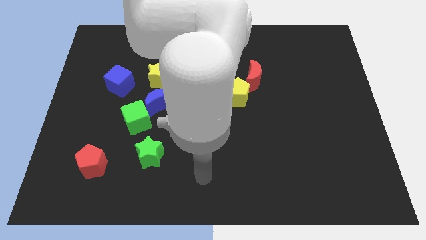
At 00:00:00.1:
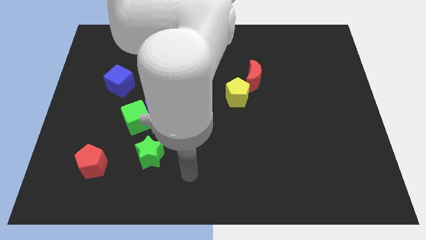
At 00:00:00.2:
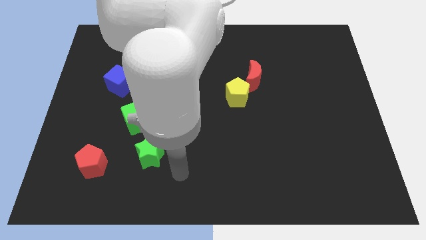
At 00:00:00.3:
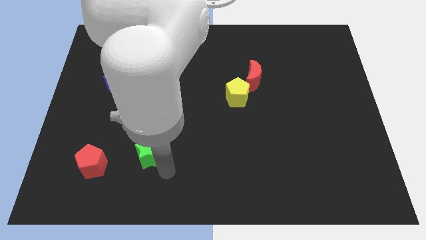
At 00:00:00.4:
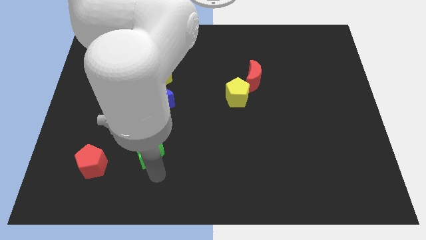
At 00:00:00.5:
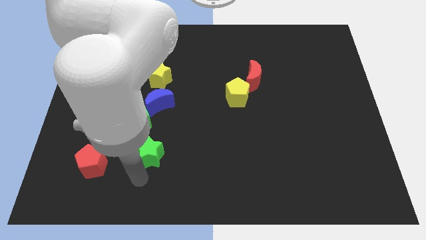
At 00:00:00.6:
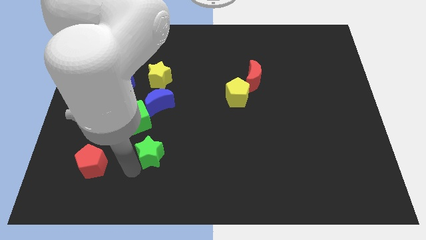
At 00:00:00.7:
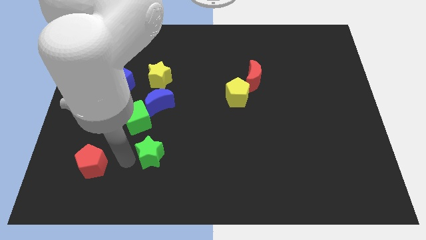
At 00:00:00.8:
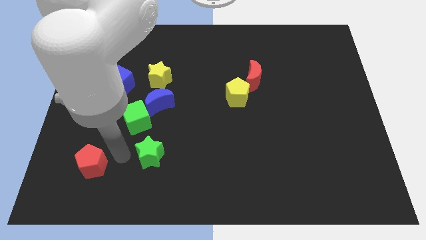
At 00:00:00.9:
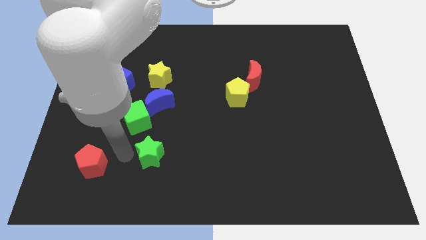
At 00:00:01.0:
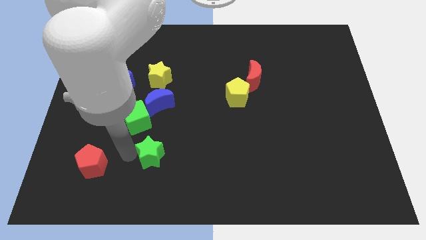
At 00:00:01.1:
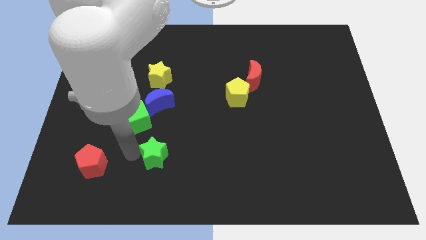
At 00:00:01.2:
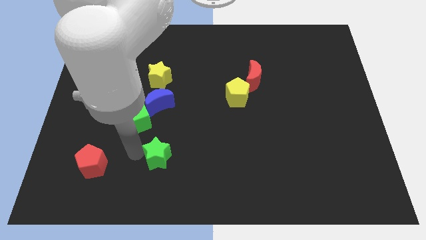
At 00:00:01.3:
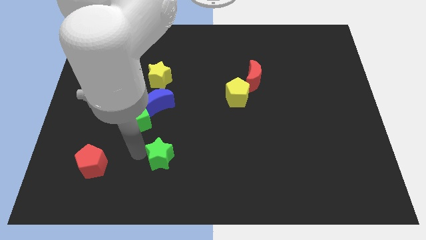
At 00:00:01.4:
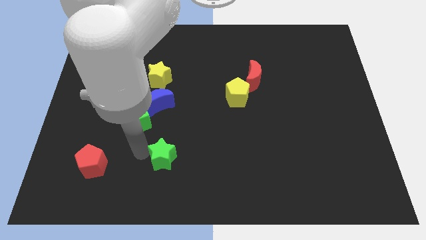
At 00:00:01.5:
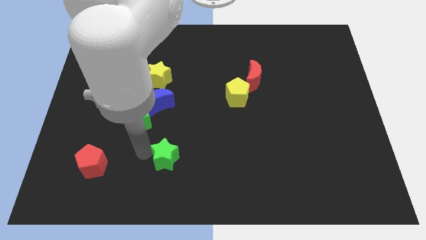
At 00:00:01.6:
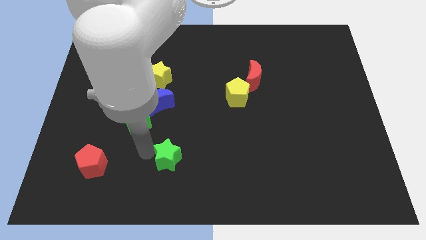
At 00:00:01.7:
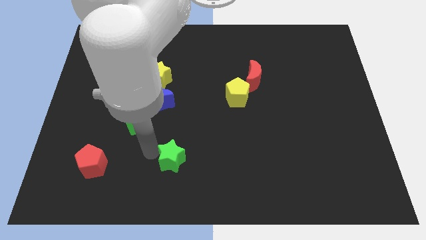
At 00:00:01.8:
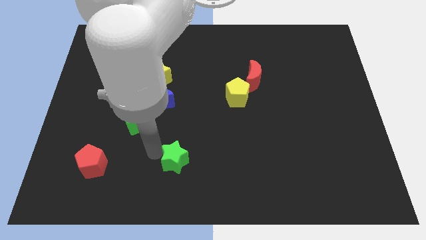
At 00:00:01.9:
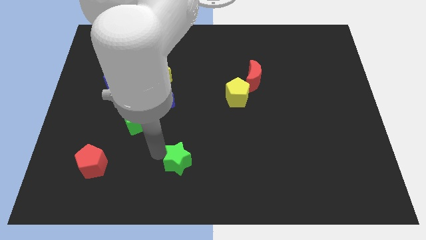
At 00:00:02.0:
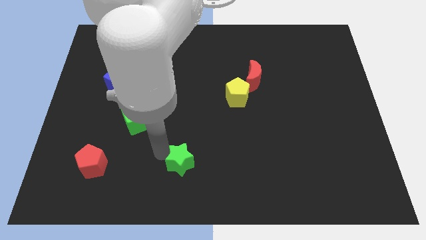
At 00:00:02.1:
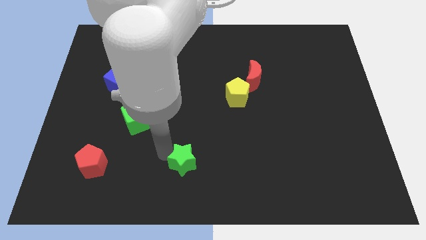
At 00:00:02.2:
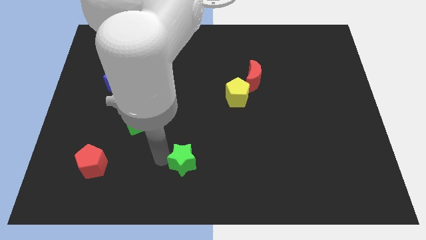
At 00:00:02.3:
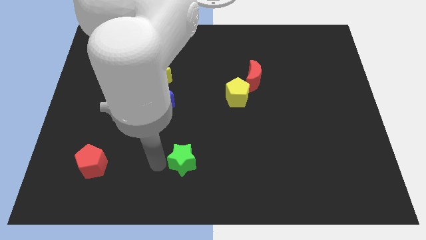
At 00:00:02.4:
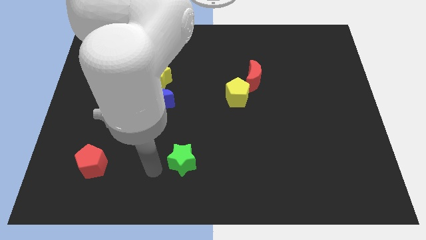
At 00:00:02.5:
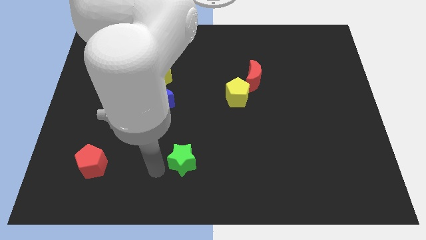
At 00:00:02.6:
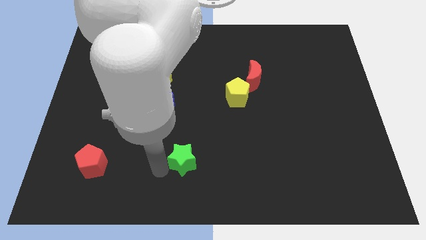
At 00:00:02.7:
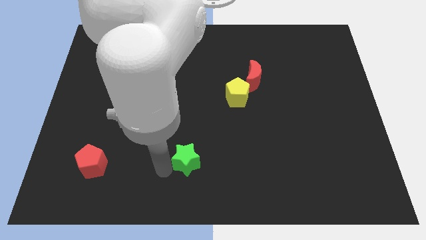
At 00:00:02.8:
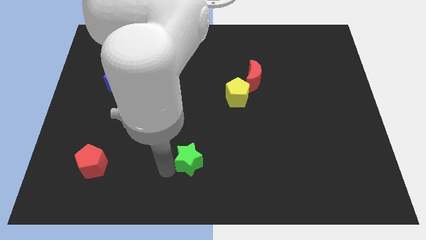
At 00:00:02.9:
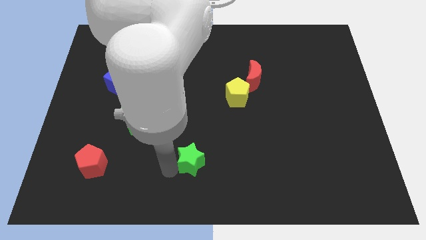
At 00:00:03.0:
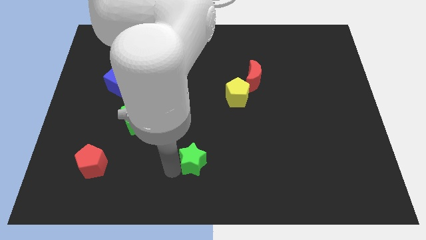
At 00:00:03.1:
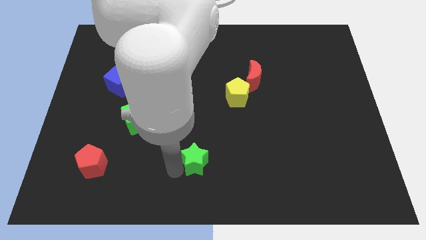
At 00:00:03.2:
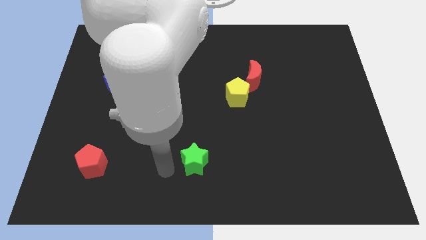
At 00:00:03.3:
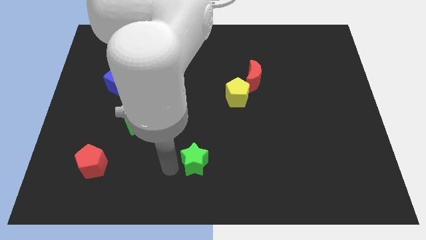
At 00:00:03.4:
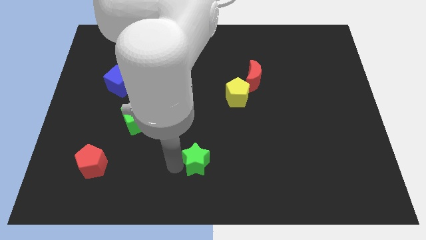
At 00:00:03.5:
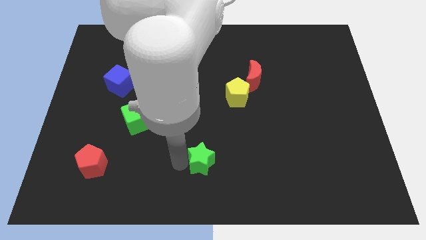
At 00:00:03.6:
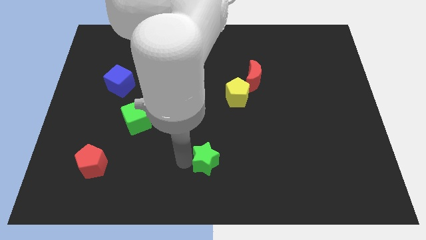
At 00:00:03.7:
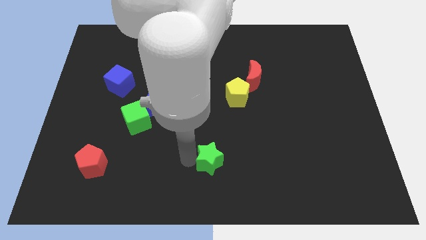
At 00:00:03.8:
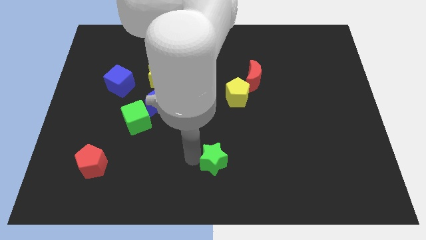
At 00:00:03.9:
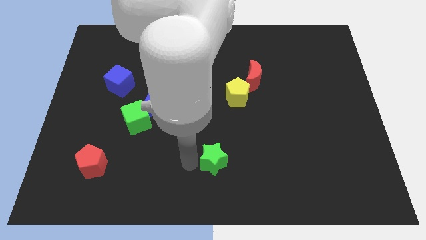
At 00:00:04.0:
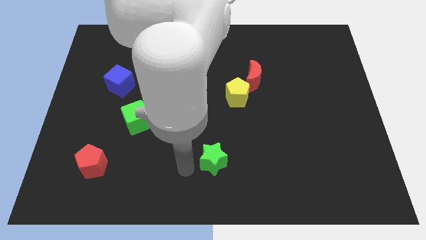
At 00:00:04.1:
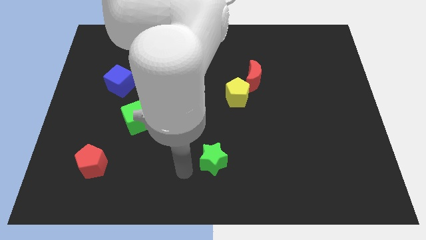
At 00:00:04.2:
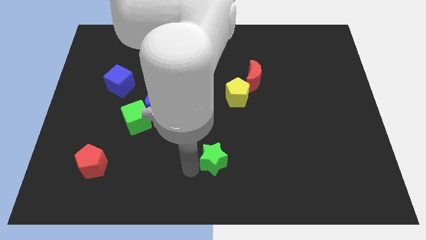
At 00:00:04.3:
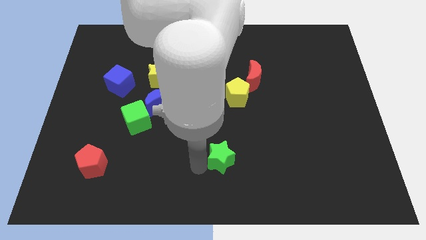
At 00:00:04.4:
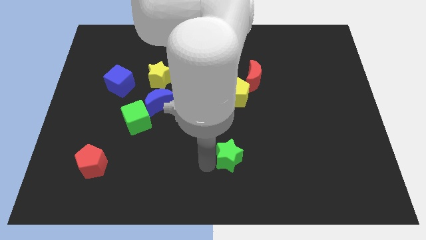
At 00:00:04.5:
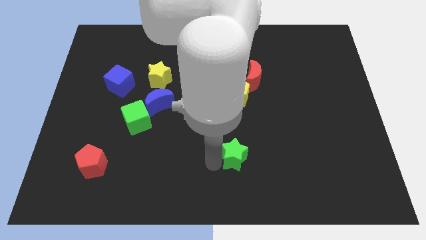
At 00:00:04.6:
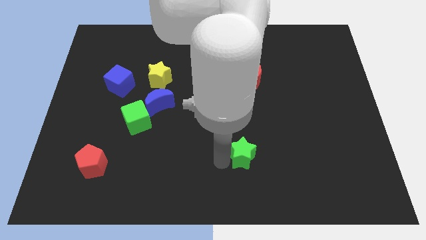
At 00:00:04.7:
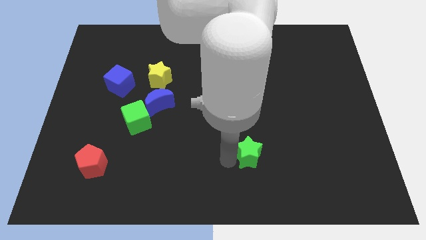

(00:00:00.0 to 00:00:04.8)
slide the green star to the right

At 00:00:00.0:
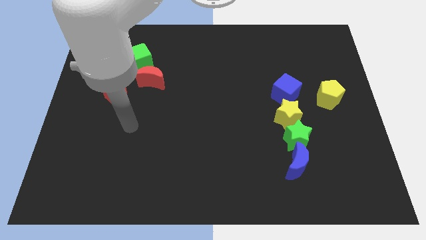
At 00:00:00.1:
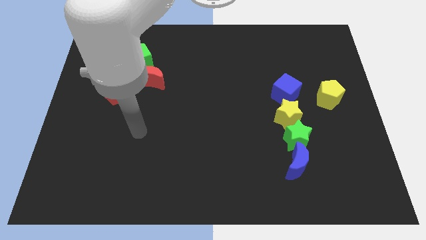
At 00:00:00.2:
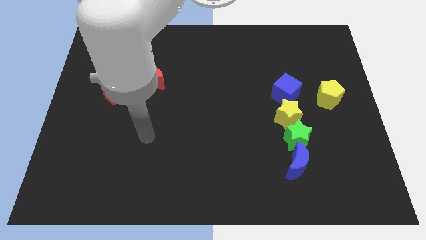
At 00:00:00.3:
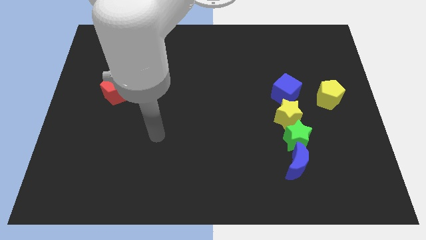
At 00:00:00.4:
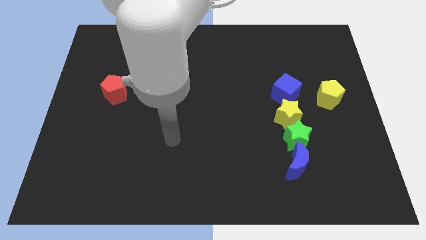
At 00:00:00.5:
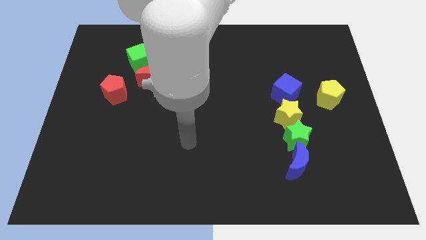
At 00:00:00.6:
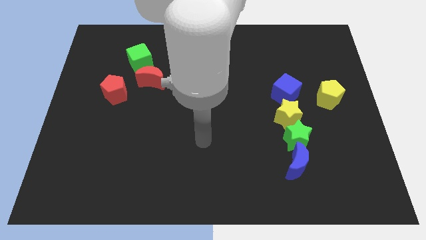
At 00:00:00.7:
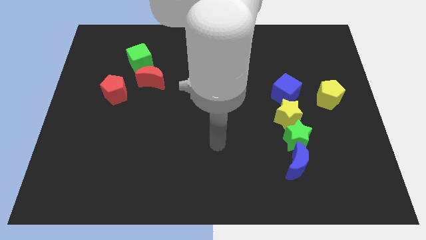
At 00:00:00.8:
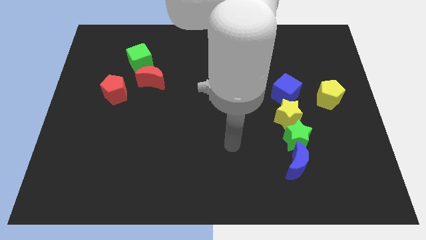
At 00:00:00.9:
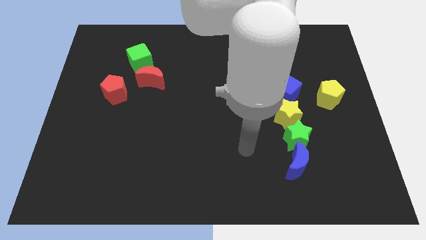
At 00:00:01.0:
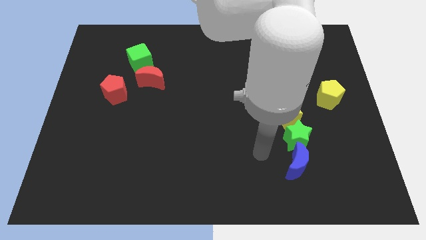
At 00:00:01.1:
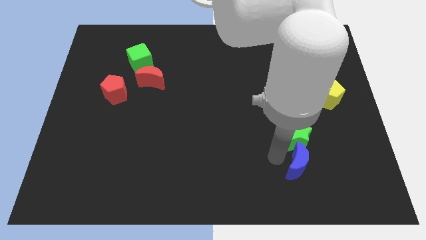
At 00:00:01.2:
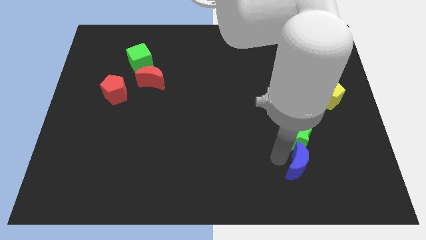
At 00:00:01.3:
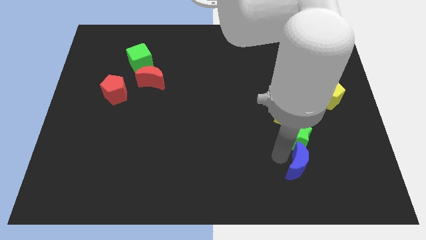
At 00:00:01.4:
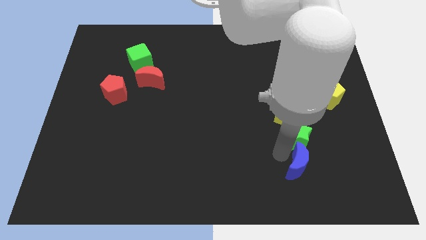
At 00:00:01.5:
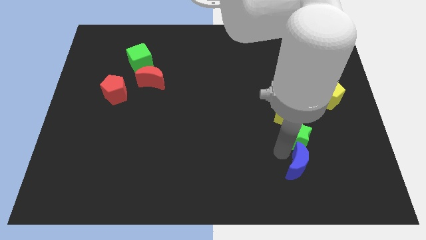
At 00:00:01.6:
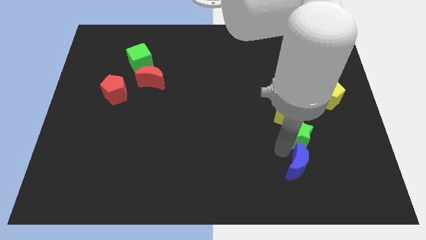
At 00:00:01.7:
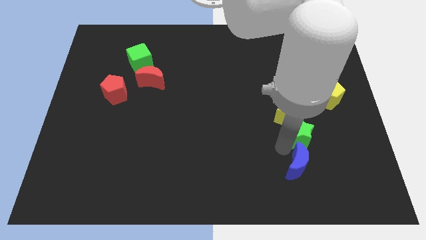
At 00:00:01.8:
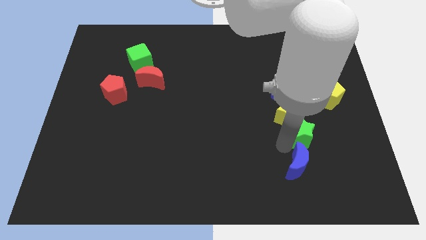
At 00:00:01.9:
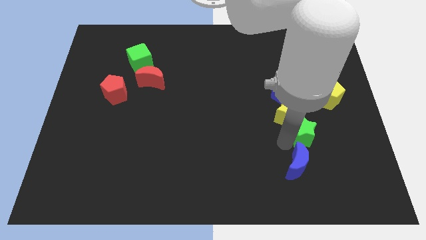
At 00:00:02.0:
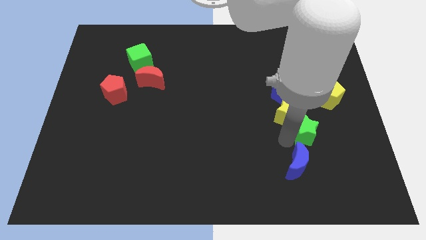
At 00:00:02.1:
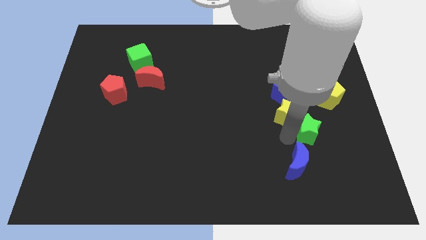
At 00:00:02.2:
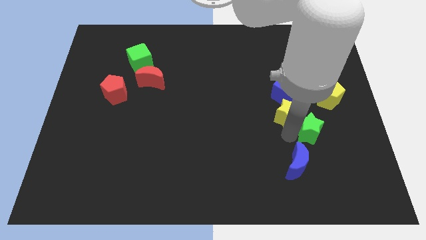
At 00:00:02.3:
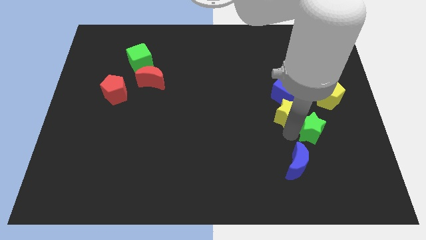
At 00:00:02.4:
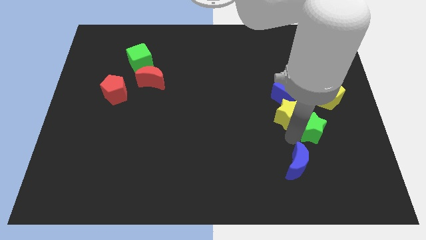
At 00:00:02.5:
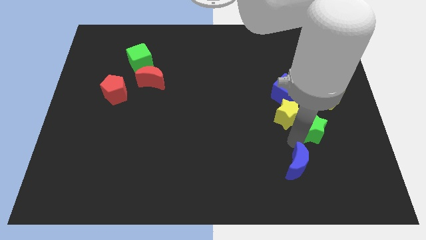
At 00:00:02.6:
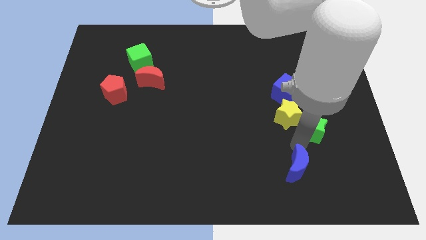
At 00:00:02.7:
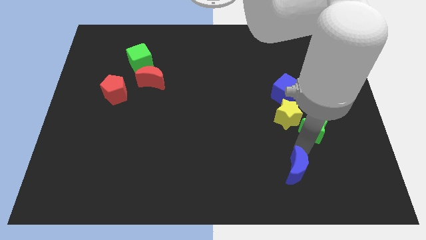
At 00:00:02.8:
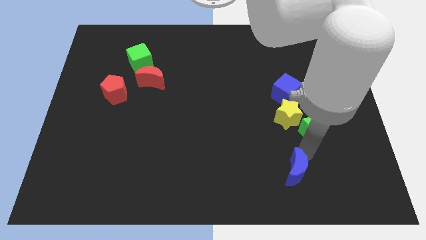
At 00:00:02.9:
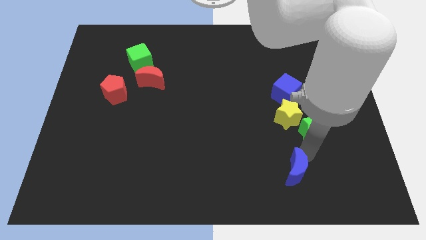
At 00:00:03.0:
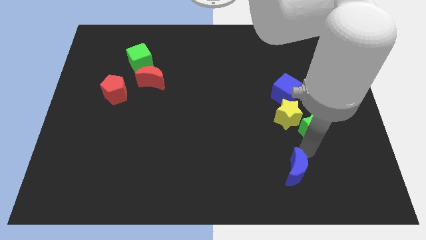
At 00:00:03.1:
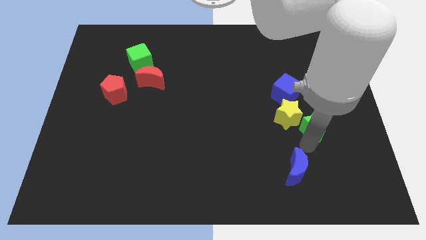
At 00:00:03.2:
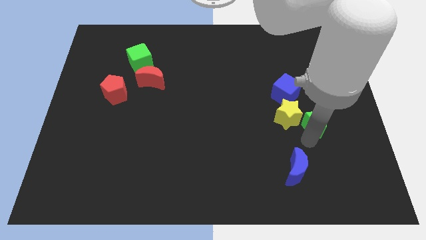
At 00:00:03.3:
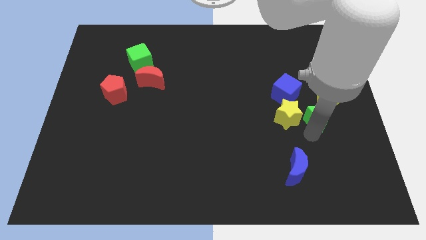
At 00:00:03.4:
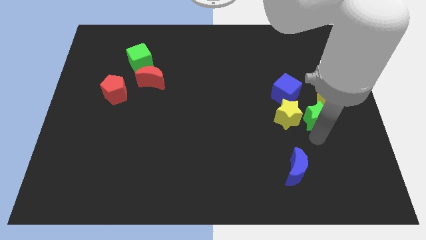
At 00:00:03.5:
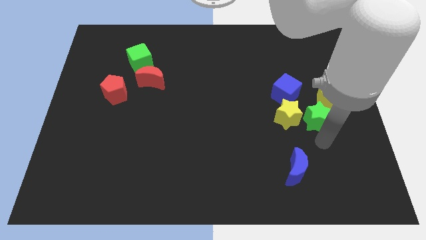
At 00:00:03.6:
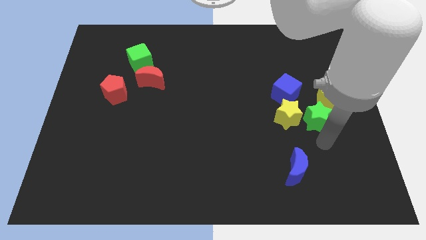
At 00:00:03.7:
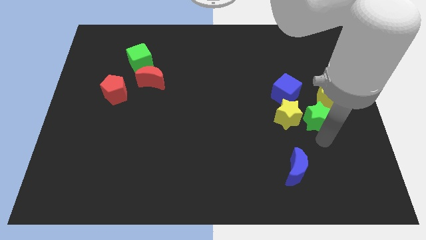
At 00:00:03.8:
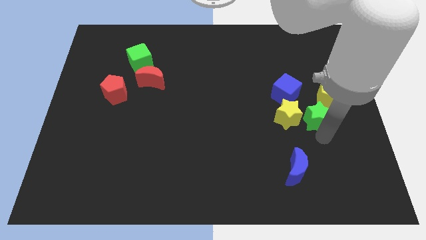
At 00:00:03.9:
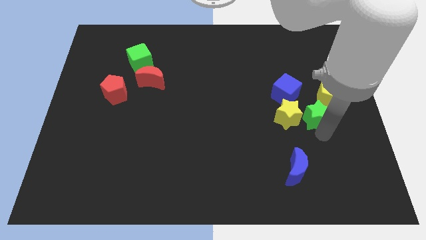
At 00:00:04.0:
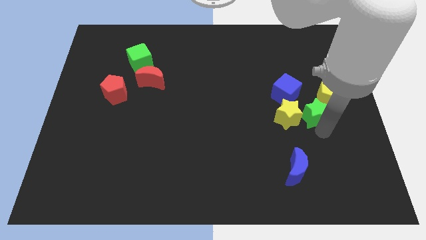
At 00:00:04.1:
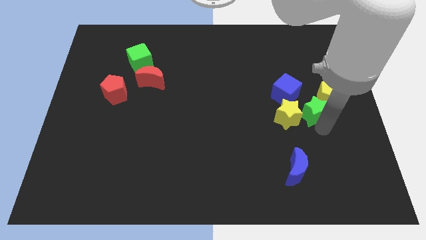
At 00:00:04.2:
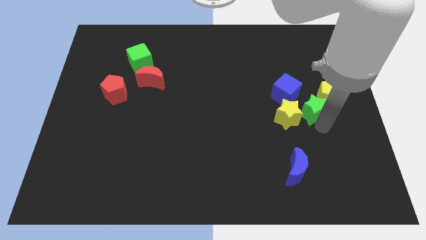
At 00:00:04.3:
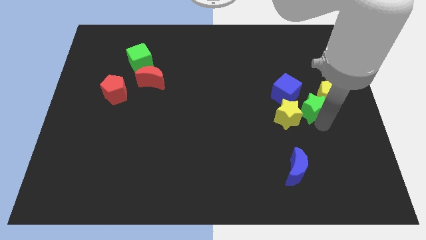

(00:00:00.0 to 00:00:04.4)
move the green star a little up
